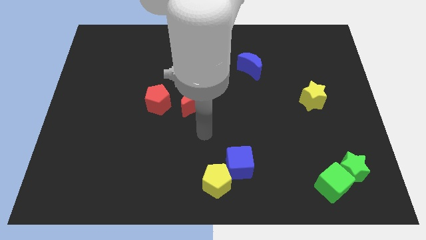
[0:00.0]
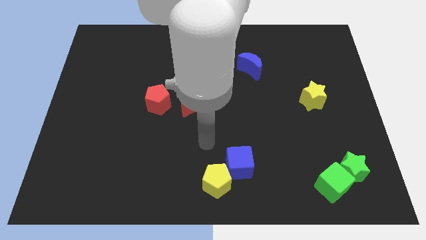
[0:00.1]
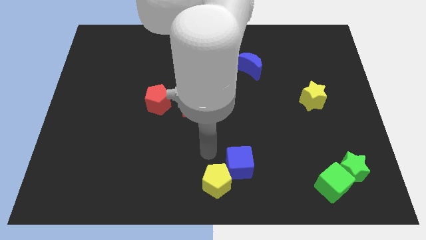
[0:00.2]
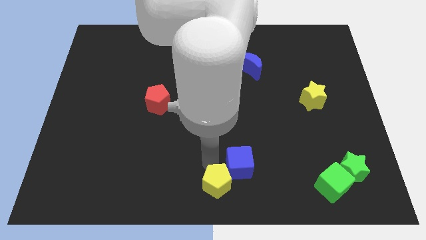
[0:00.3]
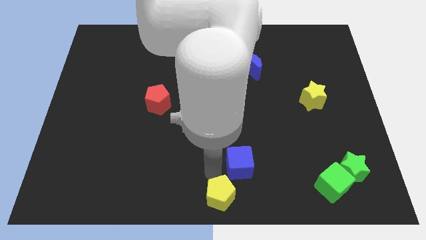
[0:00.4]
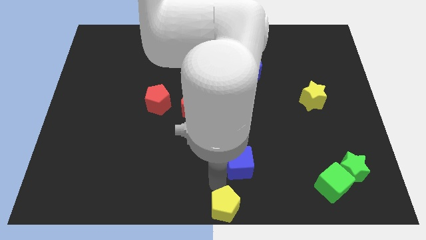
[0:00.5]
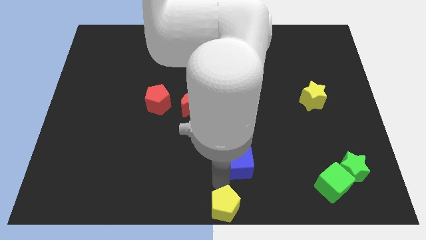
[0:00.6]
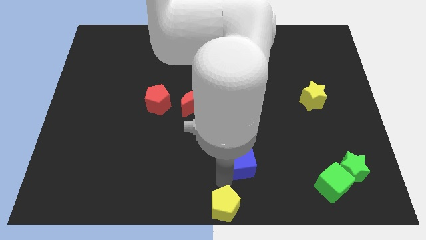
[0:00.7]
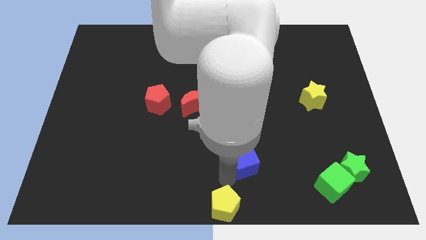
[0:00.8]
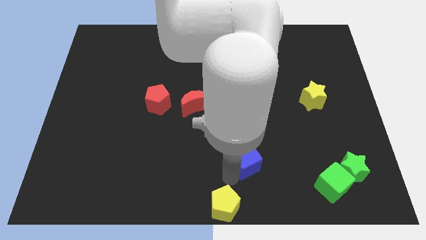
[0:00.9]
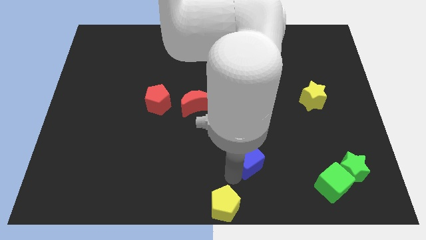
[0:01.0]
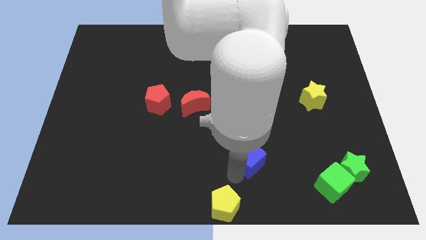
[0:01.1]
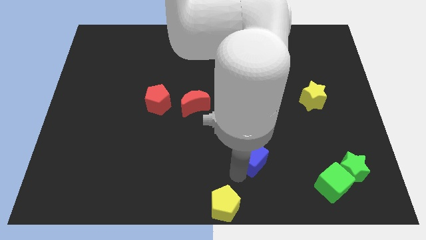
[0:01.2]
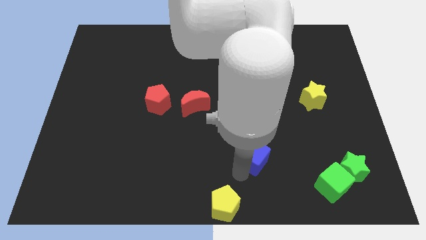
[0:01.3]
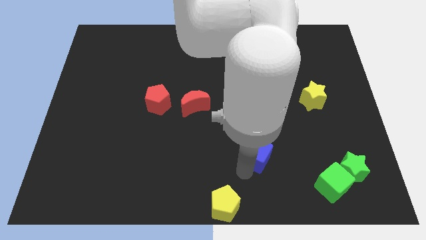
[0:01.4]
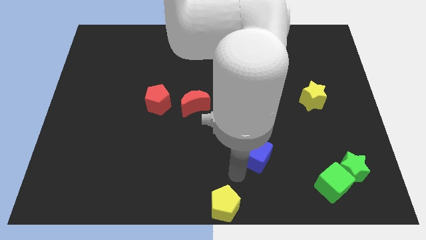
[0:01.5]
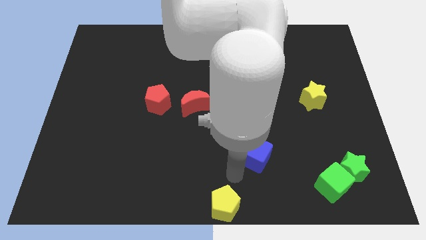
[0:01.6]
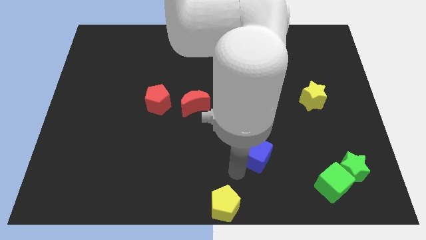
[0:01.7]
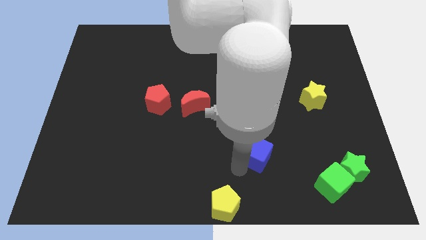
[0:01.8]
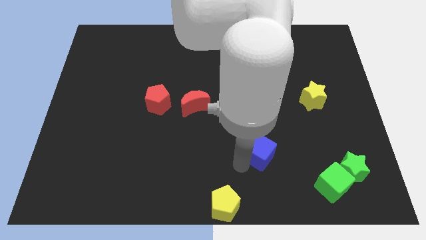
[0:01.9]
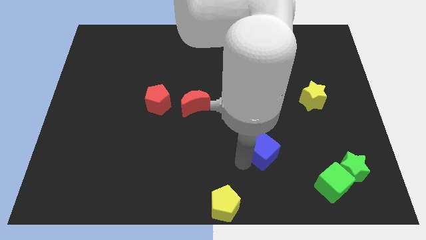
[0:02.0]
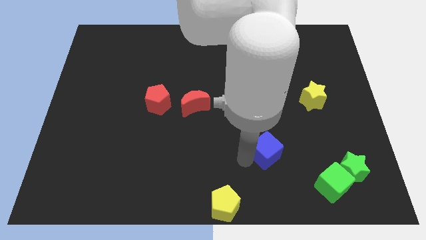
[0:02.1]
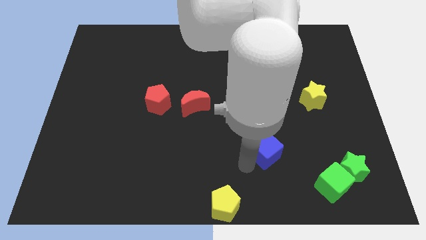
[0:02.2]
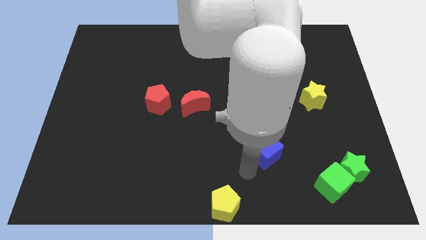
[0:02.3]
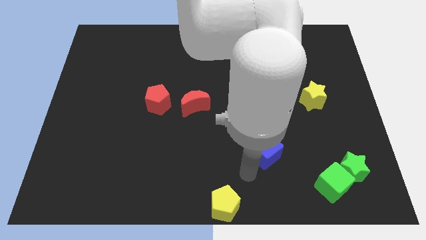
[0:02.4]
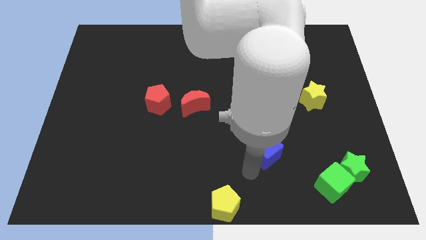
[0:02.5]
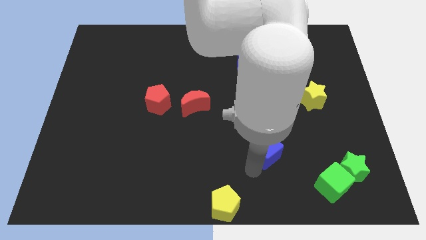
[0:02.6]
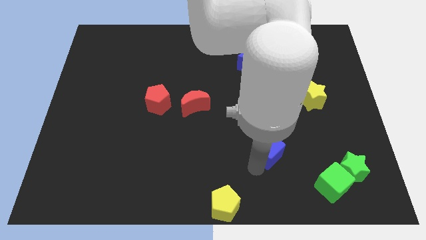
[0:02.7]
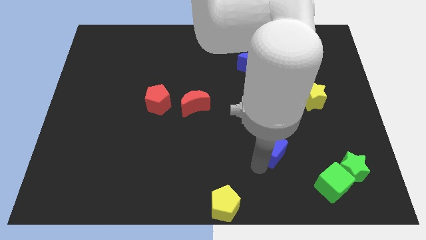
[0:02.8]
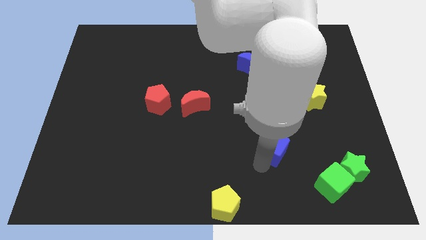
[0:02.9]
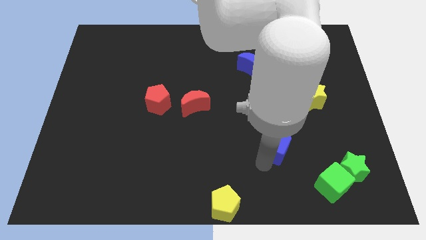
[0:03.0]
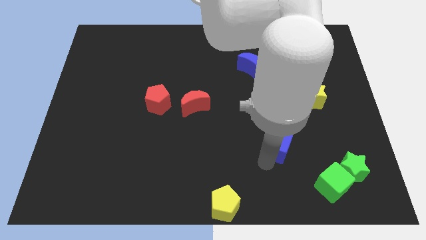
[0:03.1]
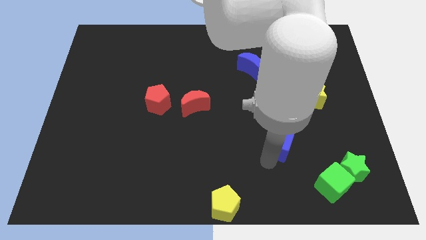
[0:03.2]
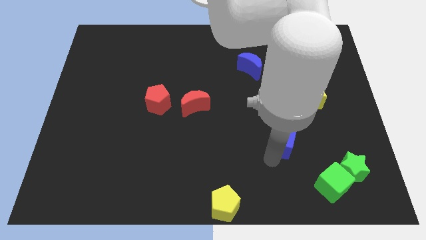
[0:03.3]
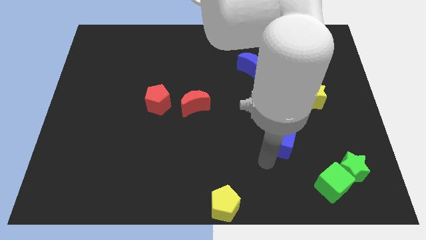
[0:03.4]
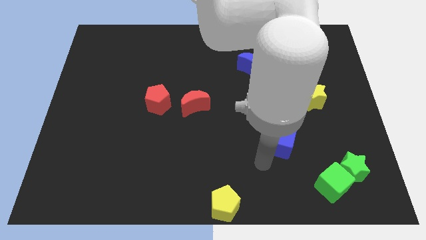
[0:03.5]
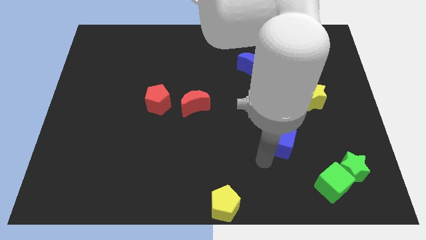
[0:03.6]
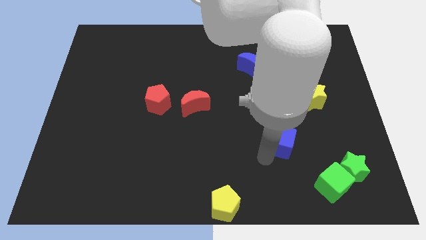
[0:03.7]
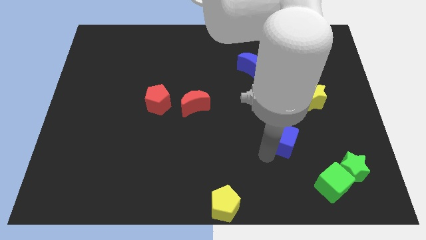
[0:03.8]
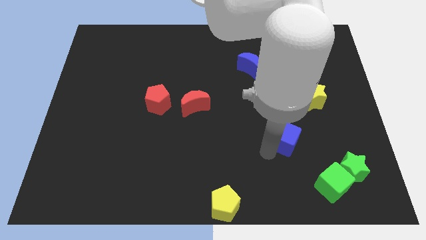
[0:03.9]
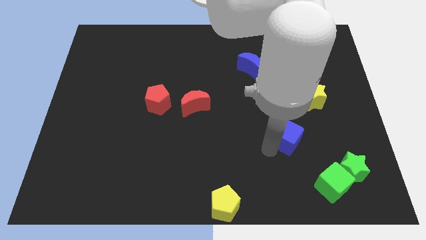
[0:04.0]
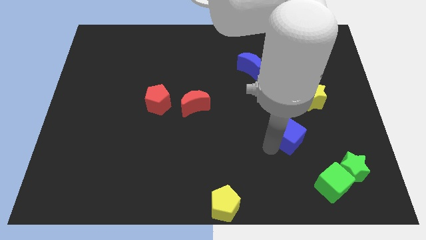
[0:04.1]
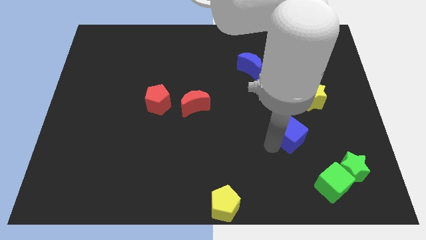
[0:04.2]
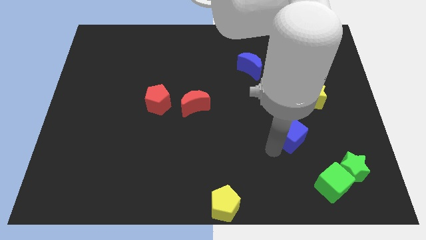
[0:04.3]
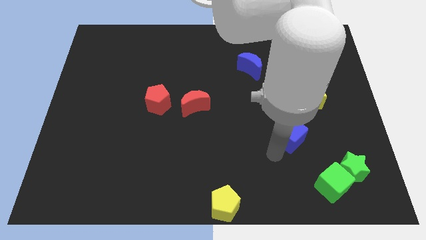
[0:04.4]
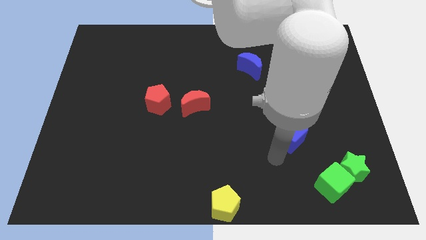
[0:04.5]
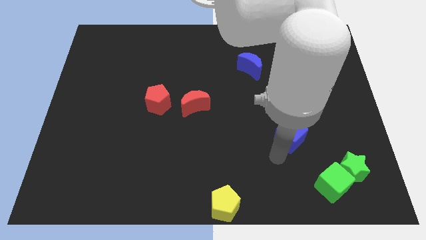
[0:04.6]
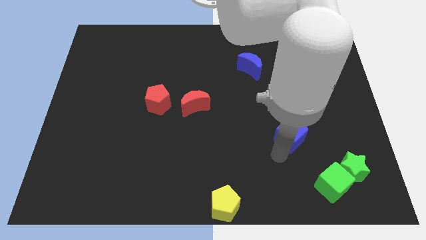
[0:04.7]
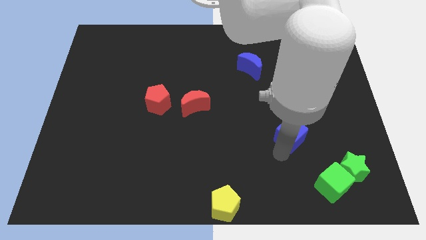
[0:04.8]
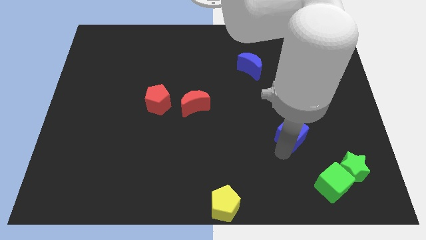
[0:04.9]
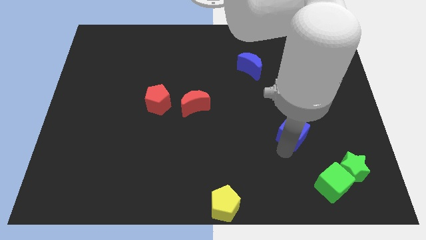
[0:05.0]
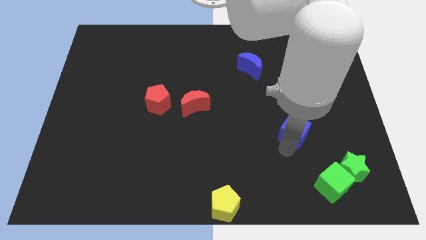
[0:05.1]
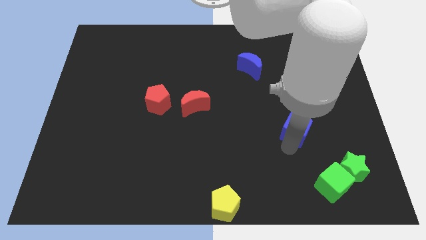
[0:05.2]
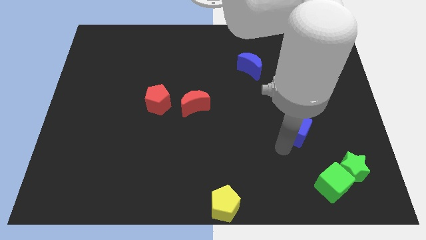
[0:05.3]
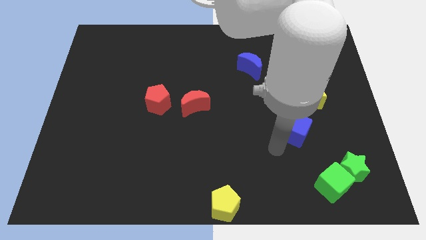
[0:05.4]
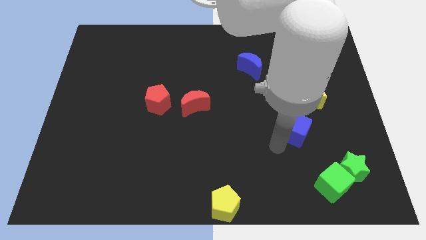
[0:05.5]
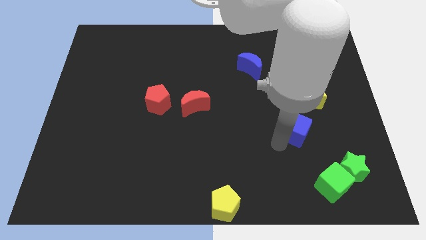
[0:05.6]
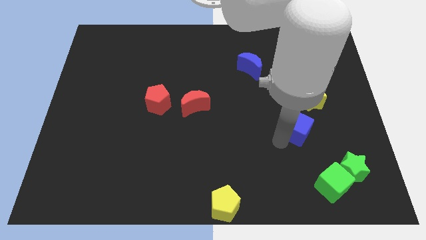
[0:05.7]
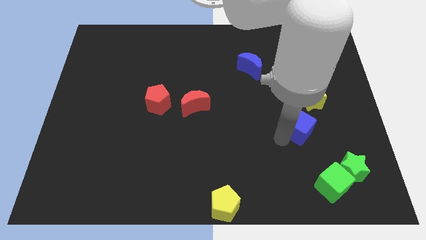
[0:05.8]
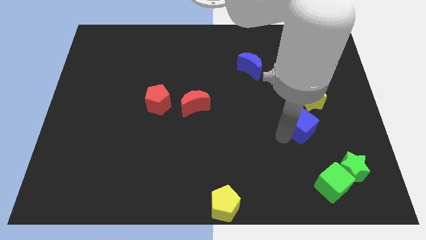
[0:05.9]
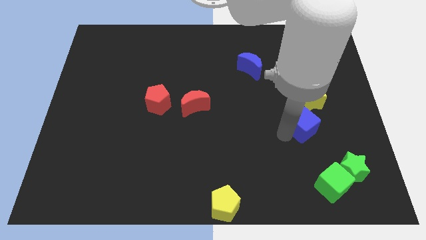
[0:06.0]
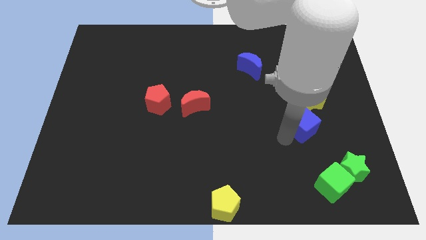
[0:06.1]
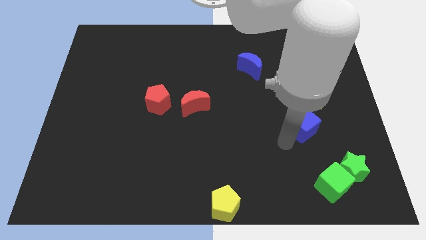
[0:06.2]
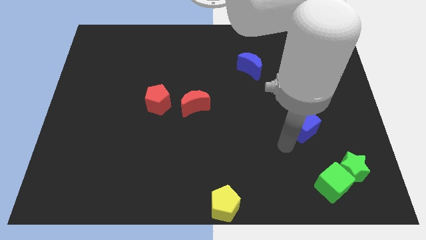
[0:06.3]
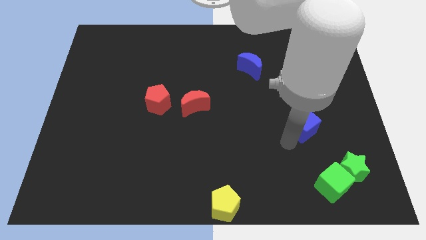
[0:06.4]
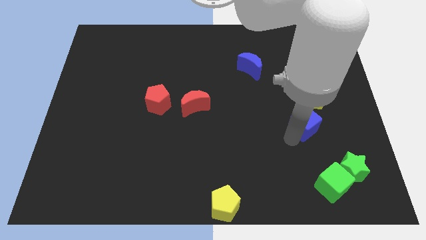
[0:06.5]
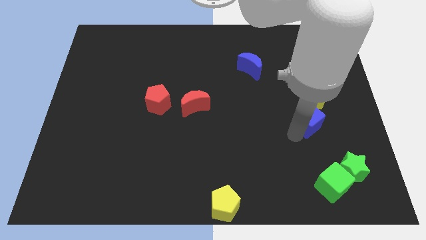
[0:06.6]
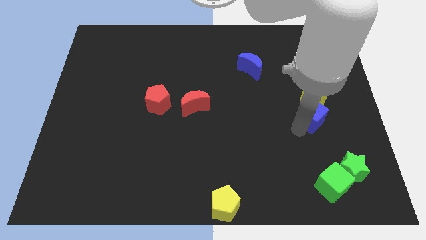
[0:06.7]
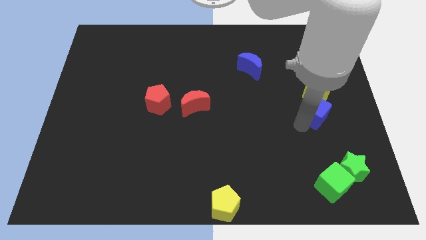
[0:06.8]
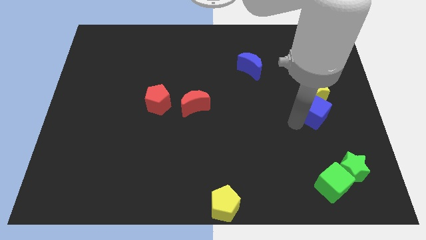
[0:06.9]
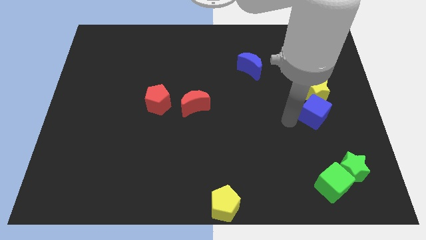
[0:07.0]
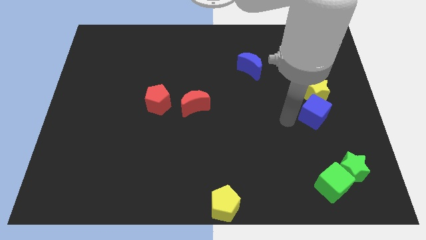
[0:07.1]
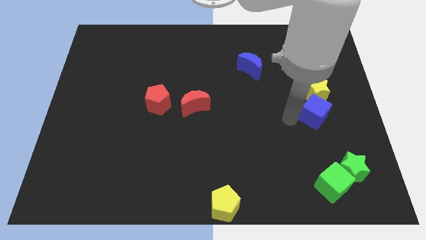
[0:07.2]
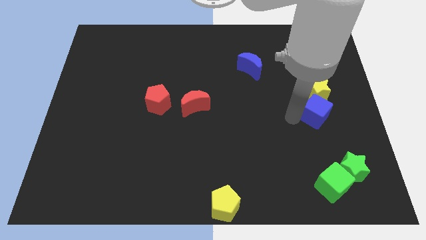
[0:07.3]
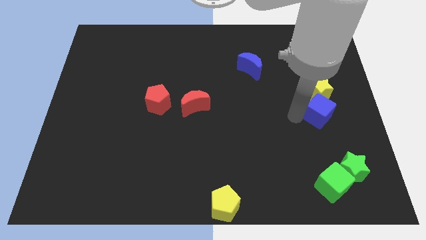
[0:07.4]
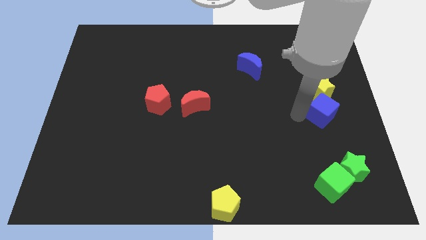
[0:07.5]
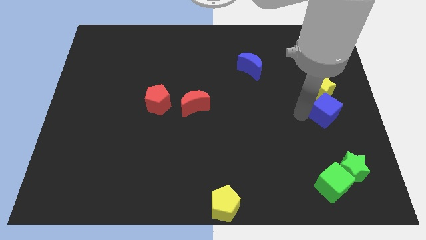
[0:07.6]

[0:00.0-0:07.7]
slide the blue cube to the center right
